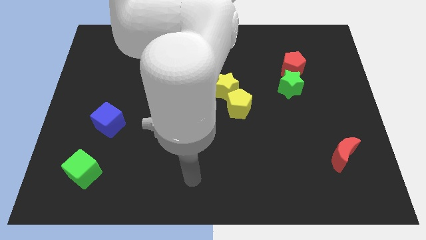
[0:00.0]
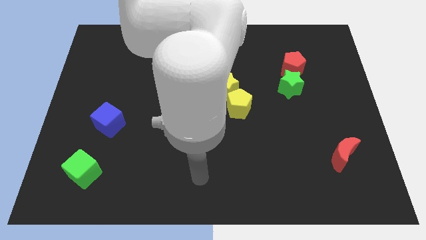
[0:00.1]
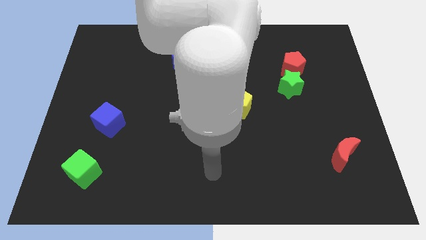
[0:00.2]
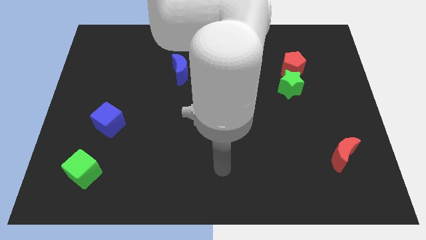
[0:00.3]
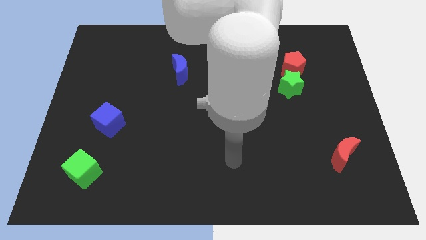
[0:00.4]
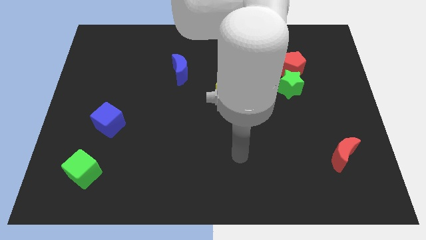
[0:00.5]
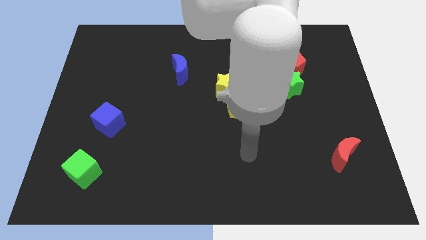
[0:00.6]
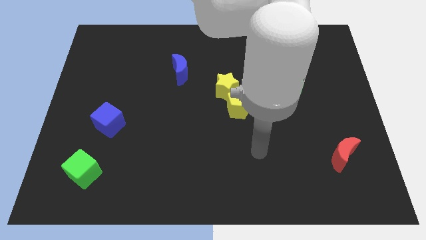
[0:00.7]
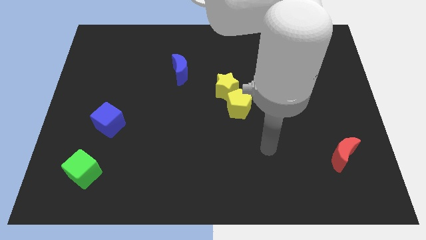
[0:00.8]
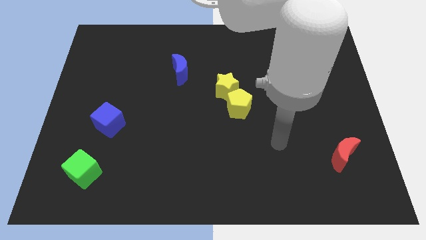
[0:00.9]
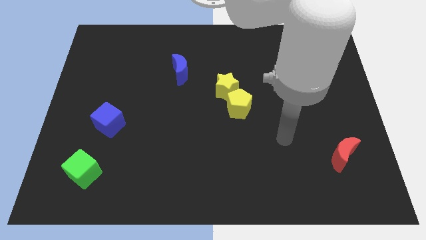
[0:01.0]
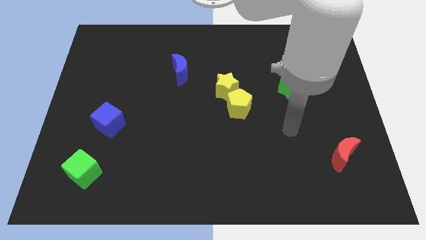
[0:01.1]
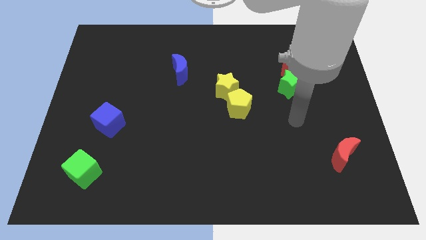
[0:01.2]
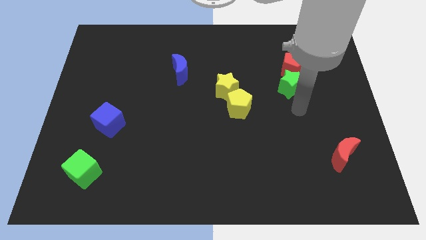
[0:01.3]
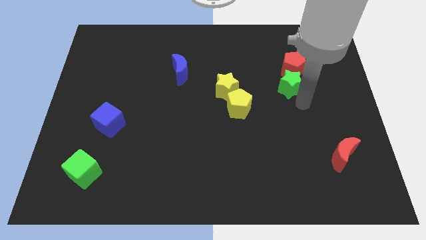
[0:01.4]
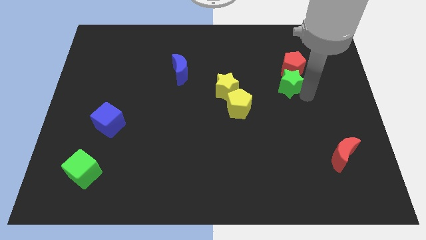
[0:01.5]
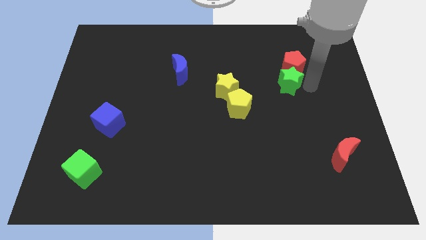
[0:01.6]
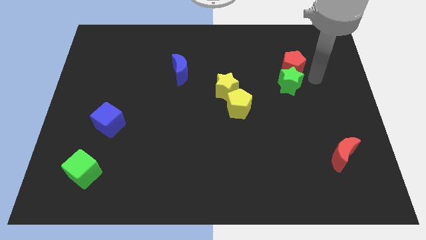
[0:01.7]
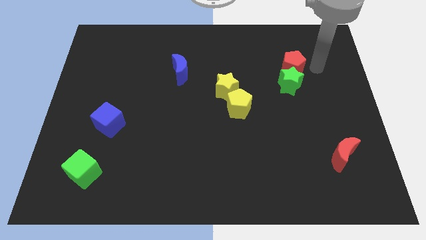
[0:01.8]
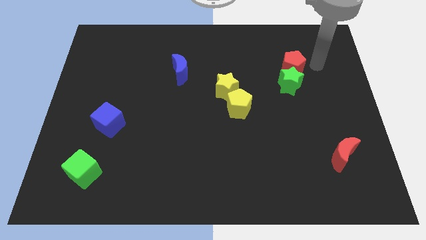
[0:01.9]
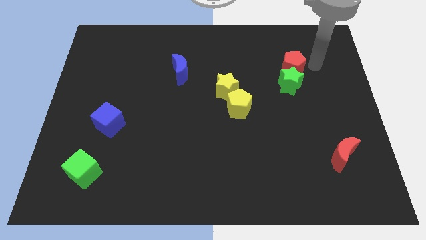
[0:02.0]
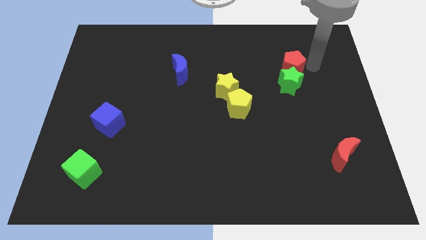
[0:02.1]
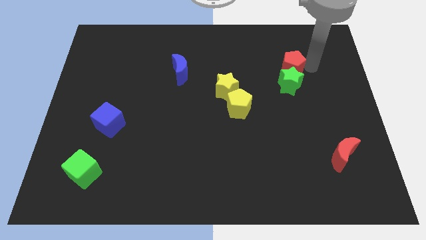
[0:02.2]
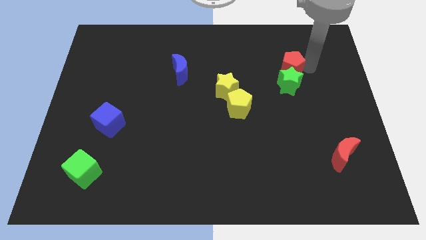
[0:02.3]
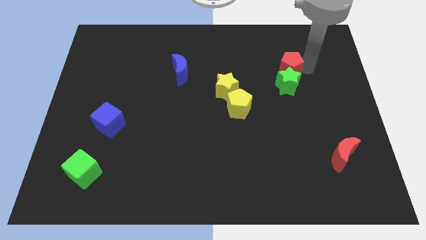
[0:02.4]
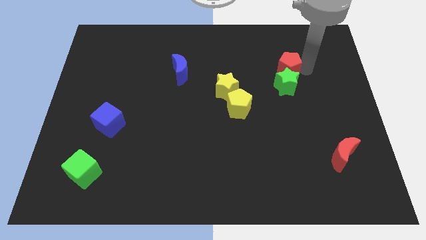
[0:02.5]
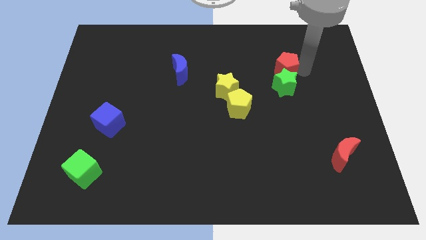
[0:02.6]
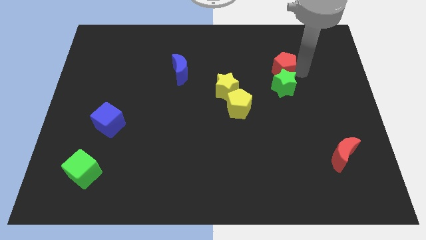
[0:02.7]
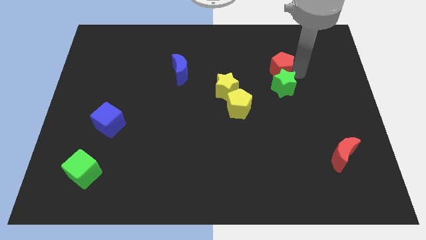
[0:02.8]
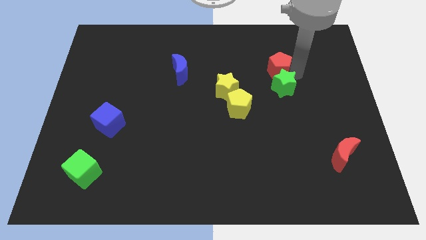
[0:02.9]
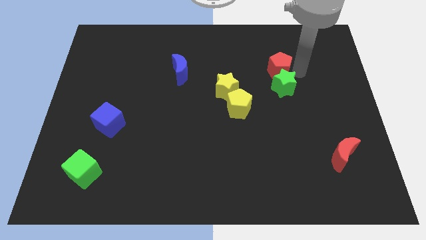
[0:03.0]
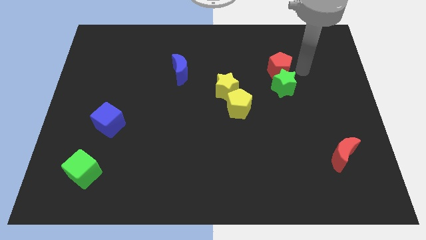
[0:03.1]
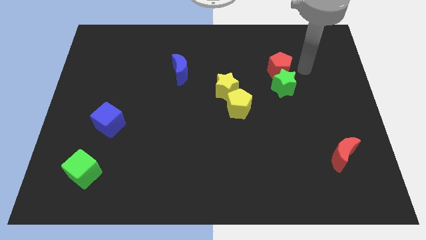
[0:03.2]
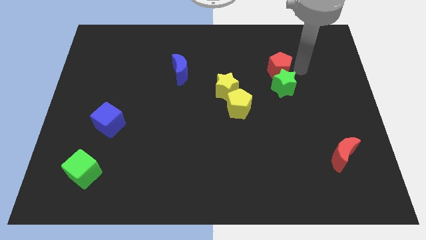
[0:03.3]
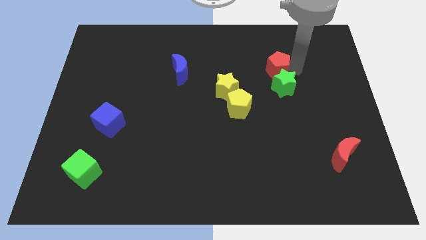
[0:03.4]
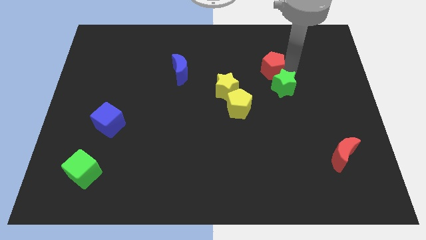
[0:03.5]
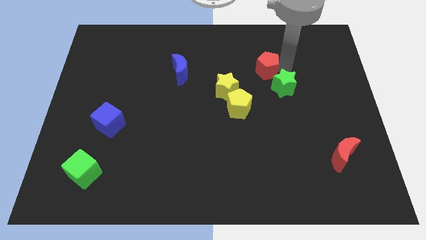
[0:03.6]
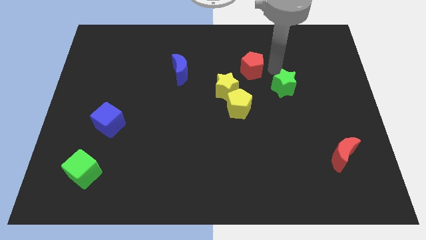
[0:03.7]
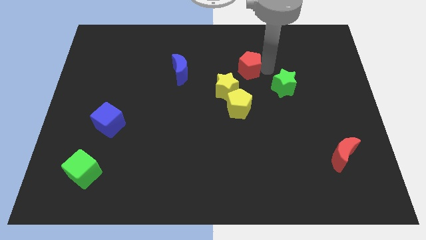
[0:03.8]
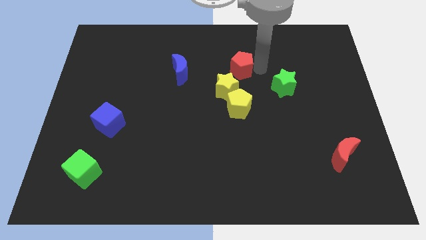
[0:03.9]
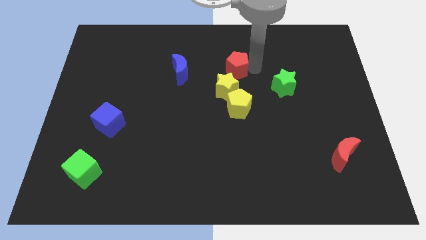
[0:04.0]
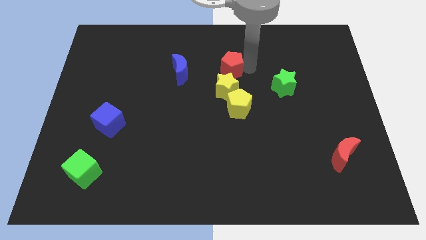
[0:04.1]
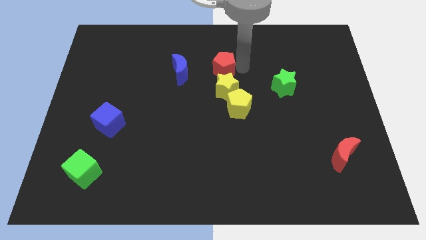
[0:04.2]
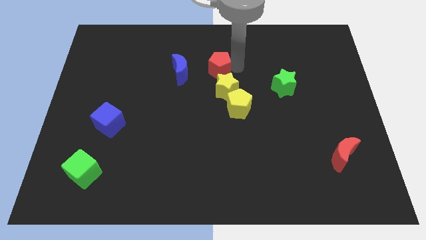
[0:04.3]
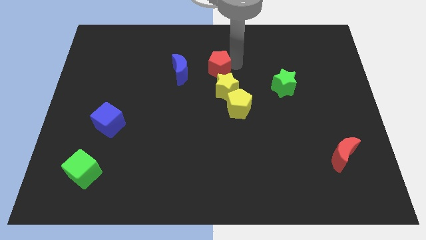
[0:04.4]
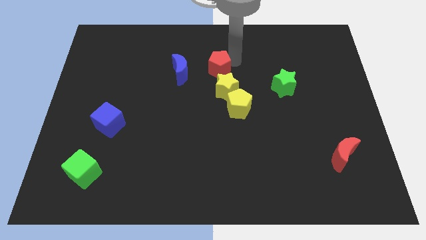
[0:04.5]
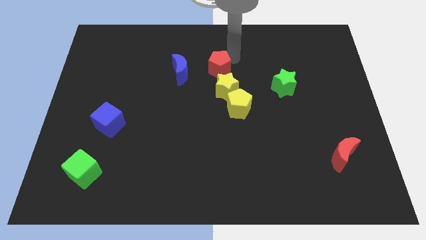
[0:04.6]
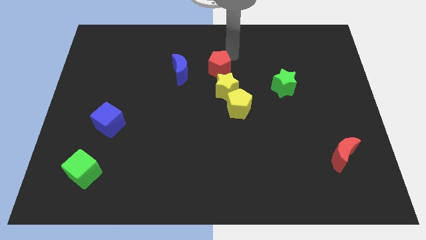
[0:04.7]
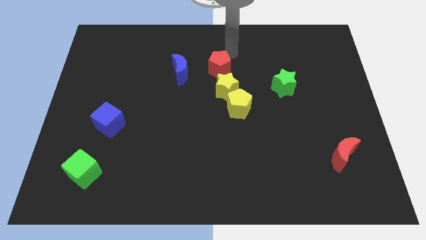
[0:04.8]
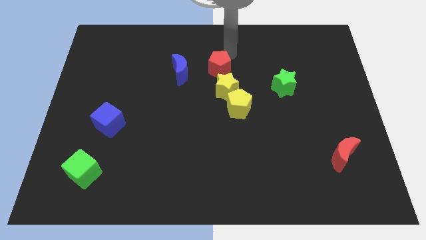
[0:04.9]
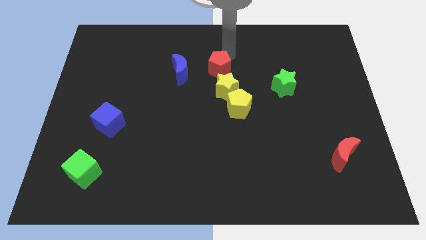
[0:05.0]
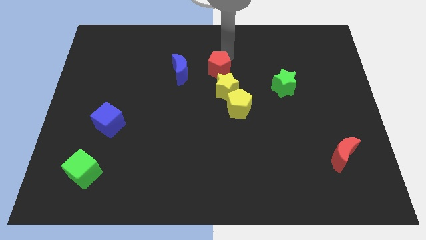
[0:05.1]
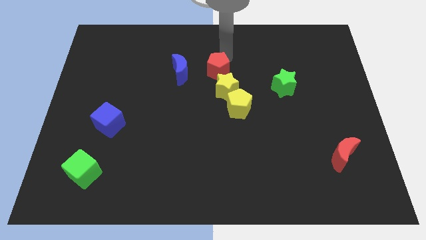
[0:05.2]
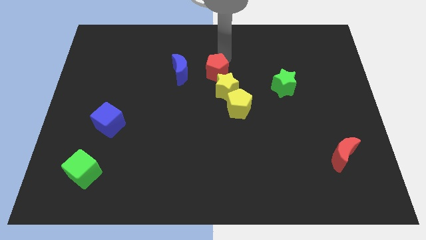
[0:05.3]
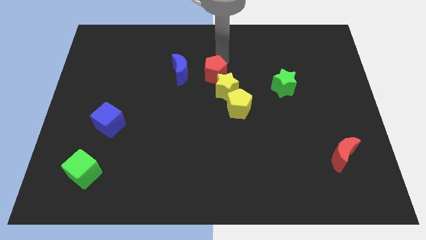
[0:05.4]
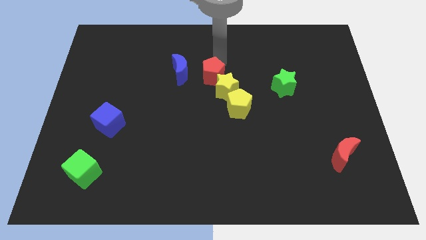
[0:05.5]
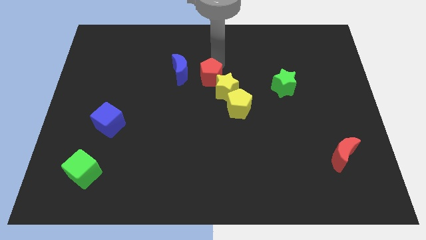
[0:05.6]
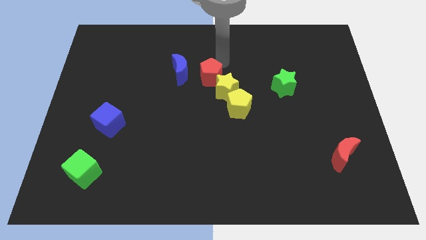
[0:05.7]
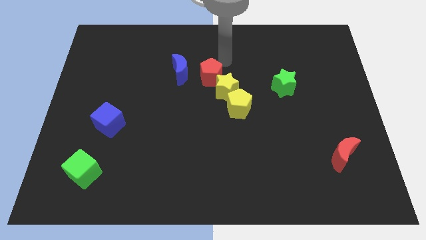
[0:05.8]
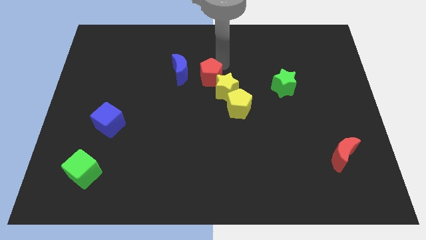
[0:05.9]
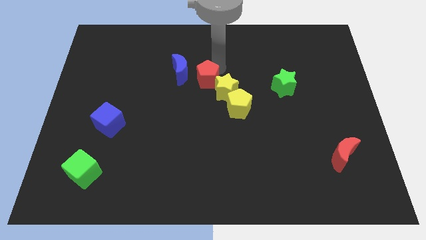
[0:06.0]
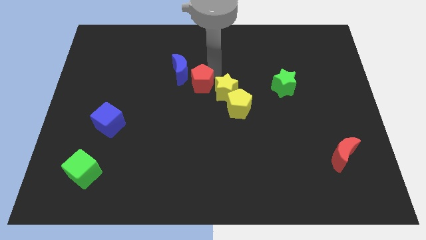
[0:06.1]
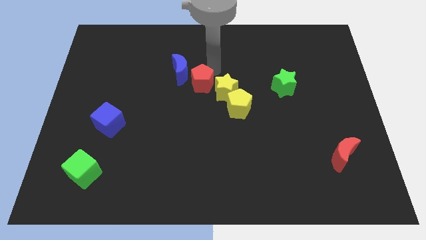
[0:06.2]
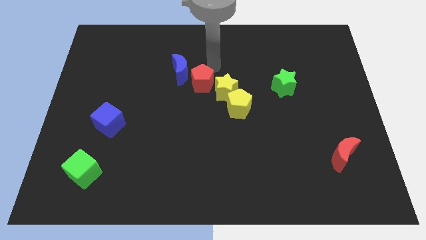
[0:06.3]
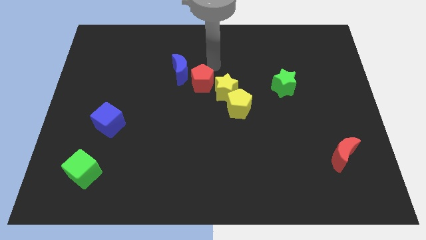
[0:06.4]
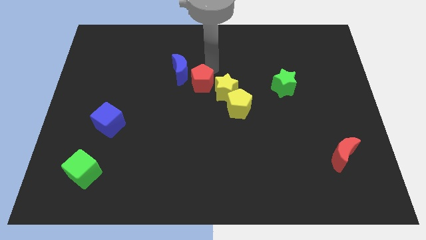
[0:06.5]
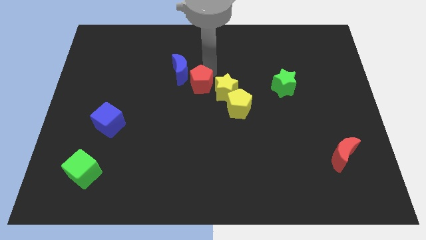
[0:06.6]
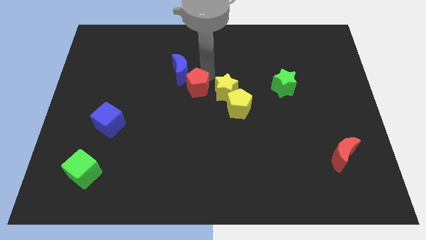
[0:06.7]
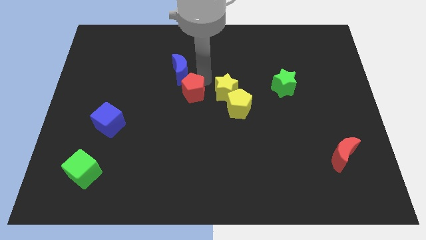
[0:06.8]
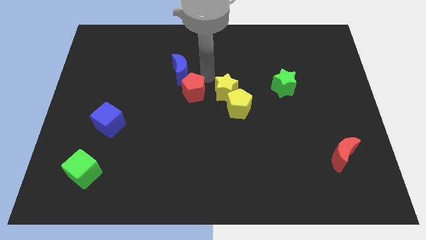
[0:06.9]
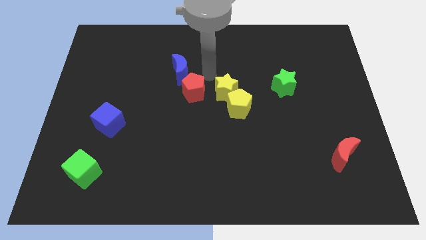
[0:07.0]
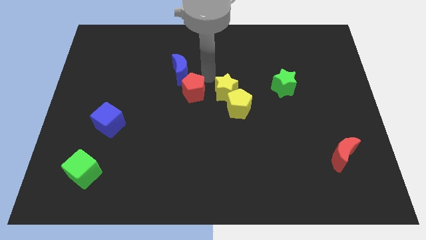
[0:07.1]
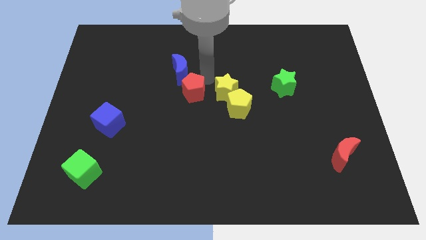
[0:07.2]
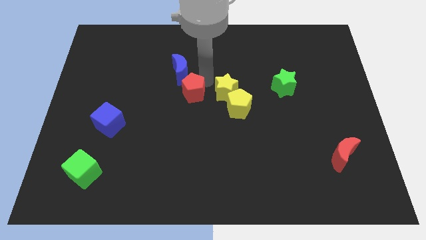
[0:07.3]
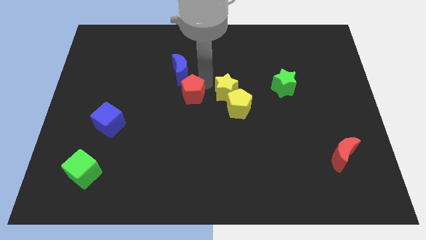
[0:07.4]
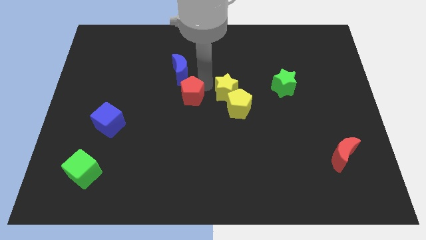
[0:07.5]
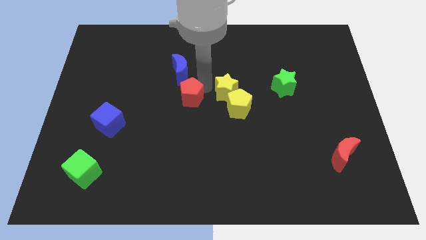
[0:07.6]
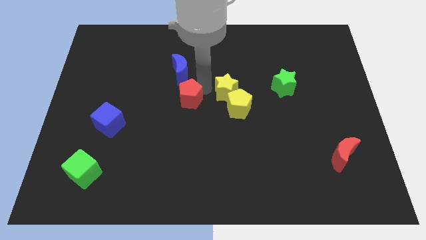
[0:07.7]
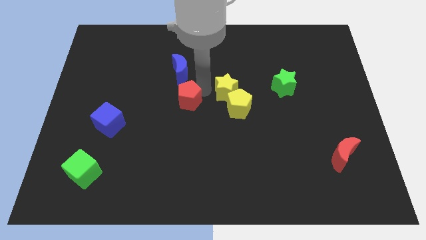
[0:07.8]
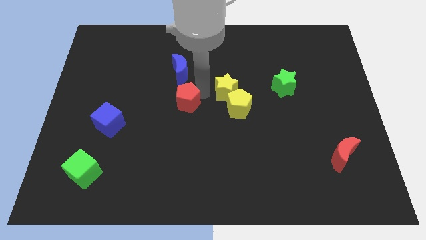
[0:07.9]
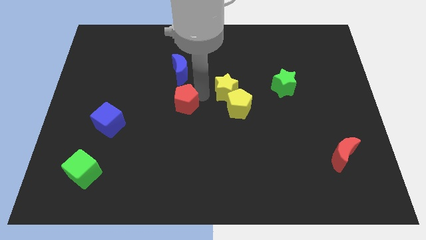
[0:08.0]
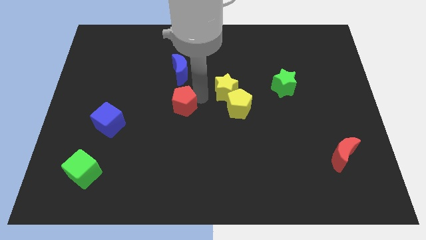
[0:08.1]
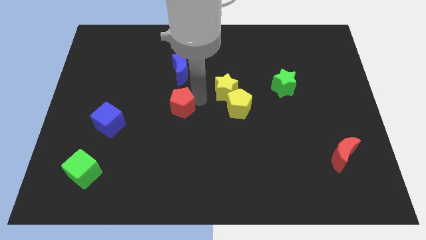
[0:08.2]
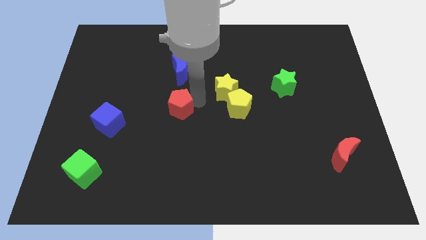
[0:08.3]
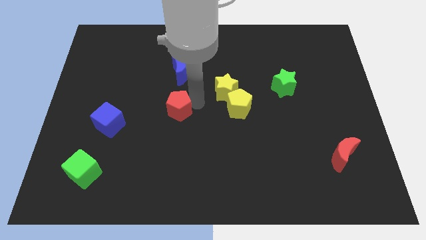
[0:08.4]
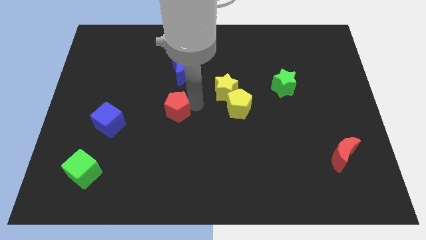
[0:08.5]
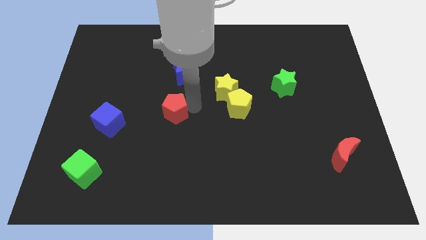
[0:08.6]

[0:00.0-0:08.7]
push the red pentagon right of the blue cube
